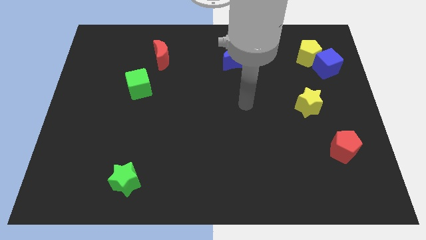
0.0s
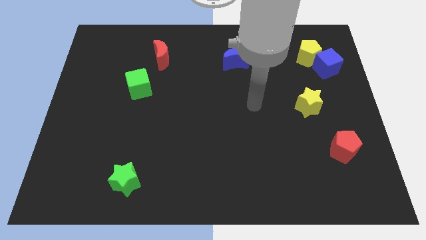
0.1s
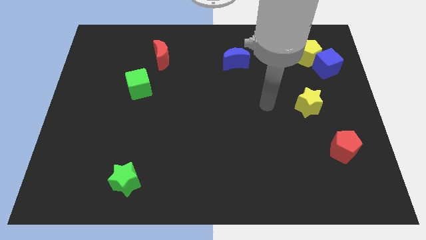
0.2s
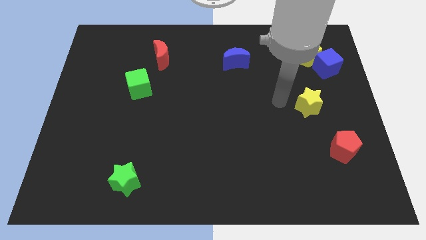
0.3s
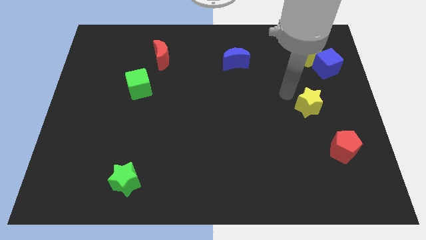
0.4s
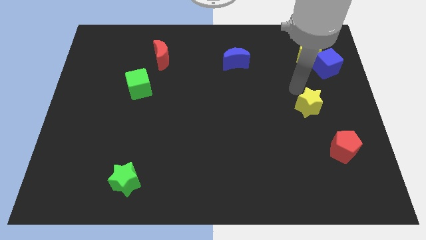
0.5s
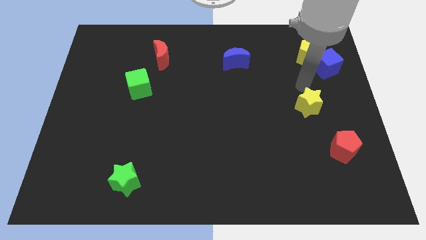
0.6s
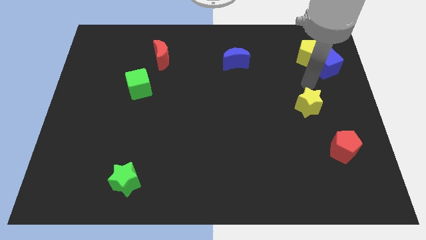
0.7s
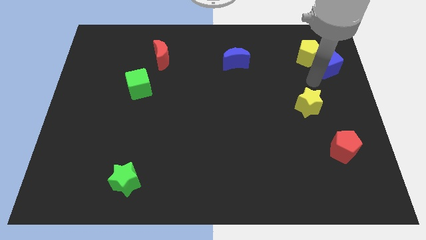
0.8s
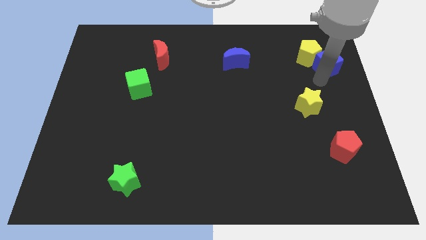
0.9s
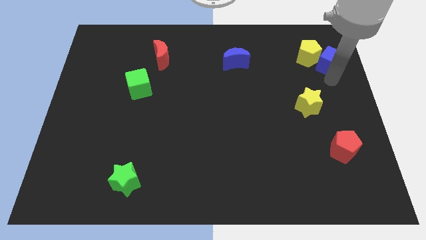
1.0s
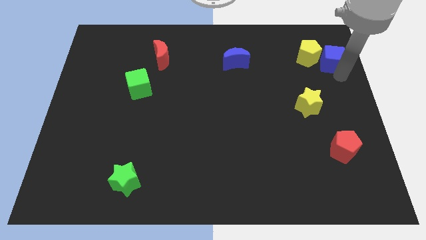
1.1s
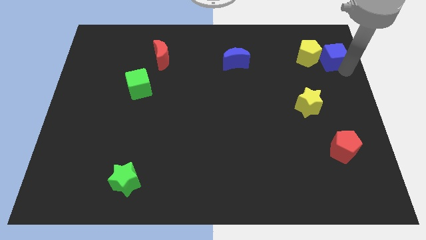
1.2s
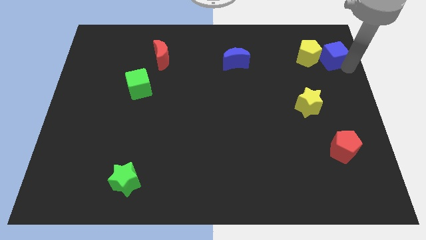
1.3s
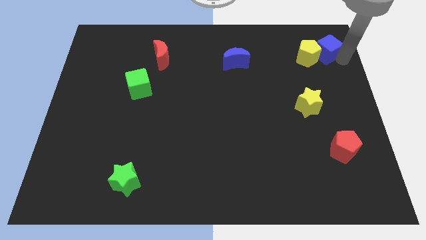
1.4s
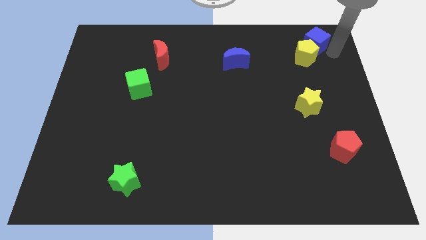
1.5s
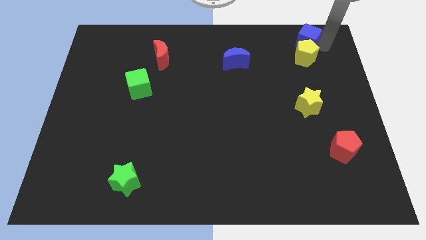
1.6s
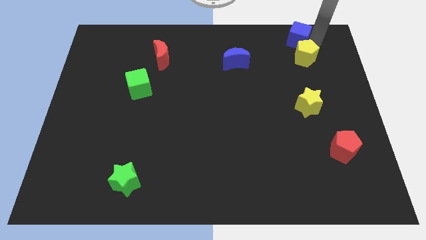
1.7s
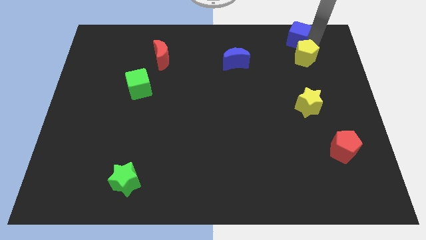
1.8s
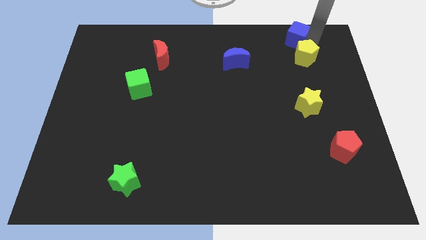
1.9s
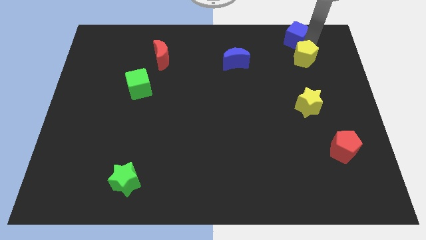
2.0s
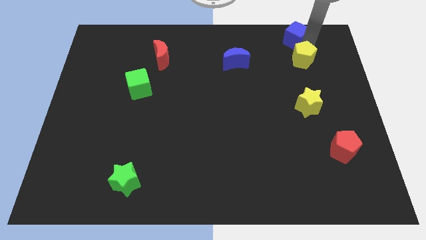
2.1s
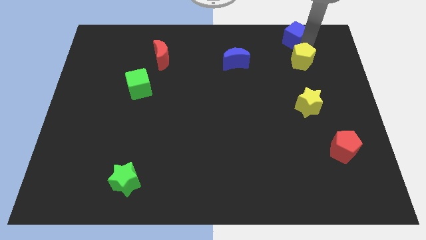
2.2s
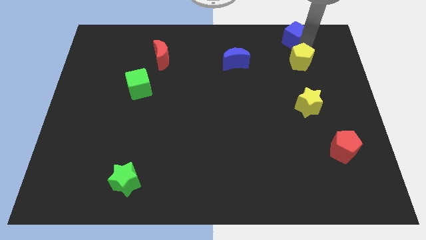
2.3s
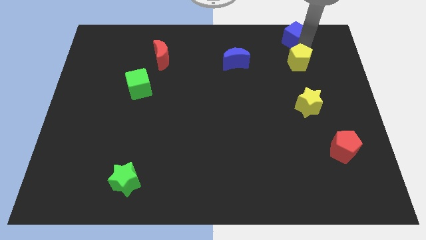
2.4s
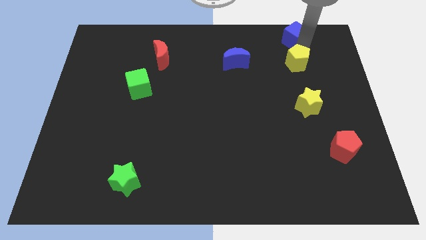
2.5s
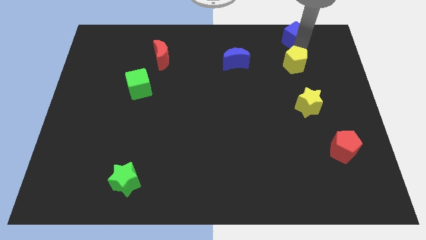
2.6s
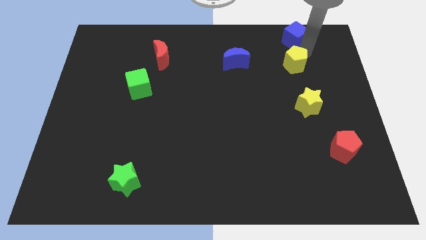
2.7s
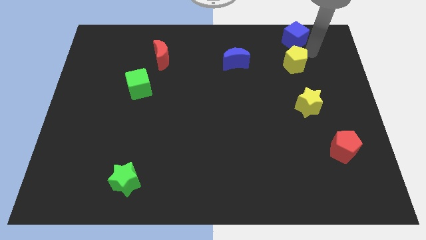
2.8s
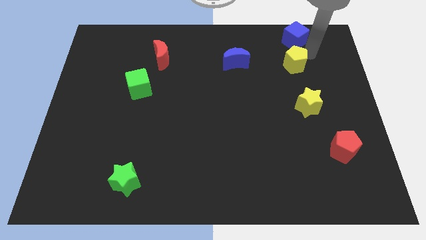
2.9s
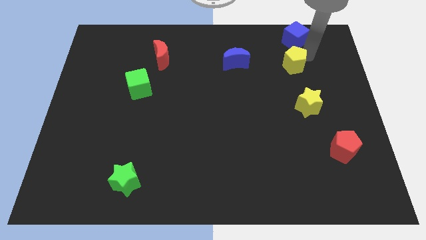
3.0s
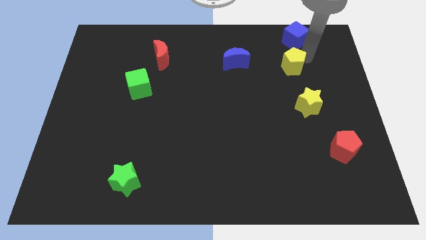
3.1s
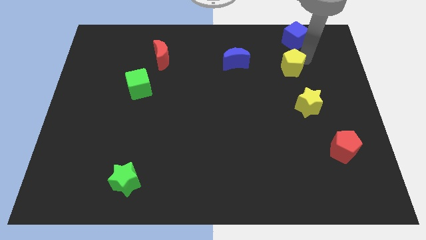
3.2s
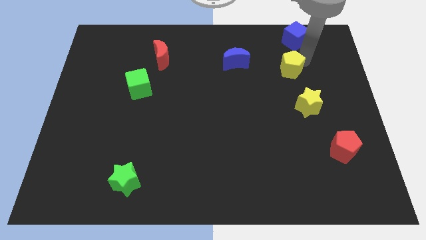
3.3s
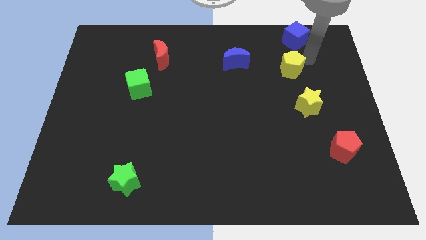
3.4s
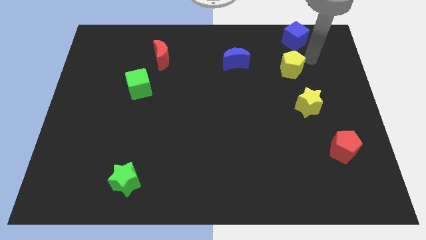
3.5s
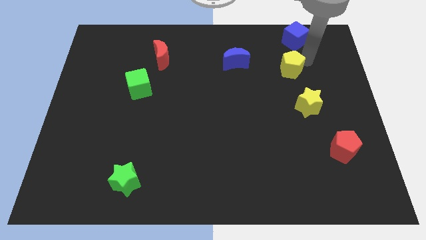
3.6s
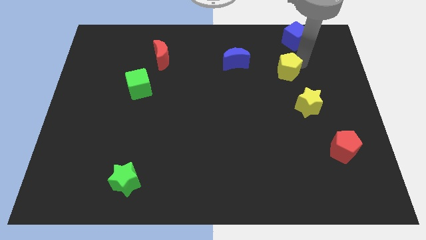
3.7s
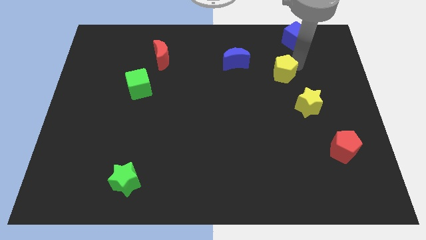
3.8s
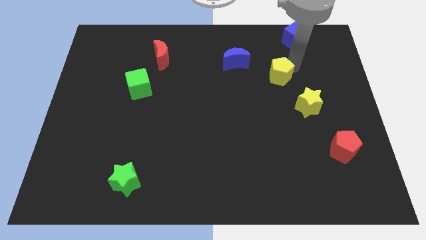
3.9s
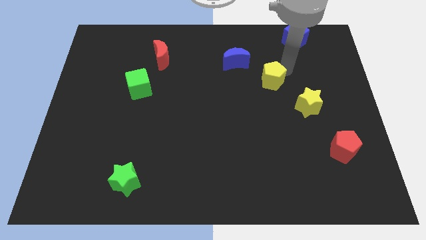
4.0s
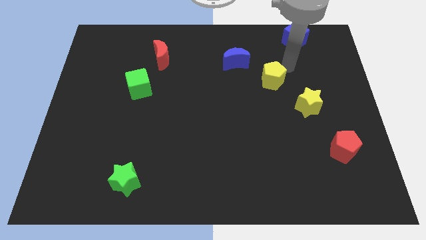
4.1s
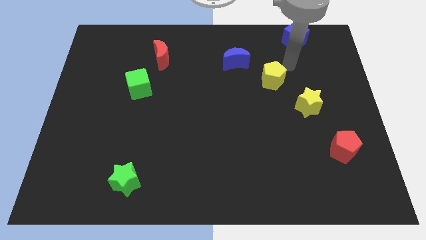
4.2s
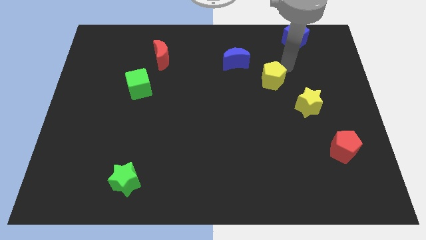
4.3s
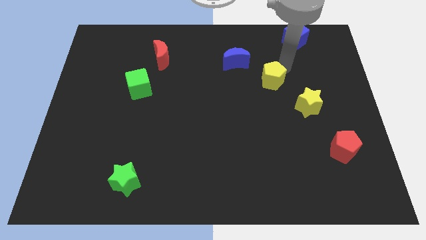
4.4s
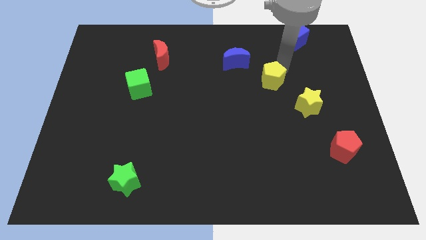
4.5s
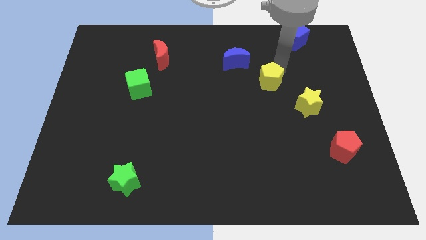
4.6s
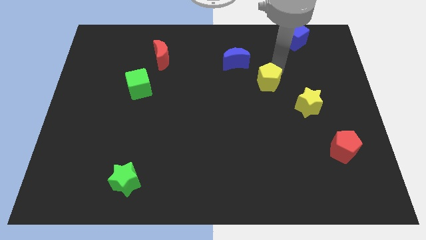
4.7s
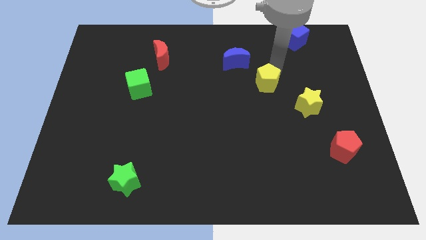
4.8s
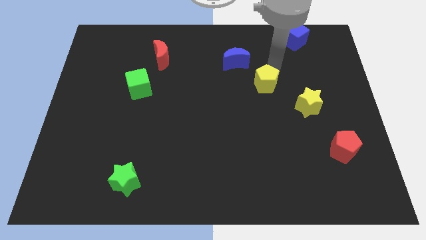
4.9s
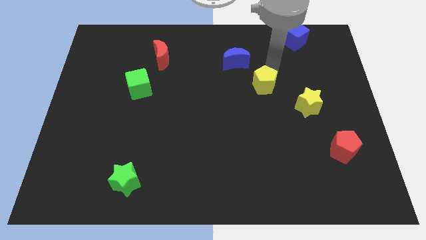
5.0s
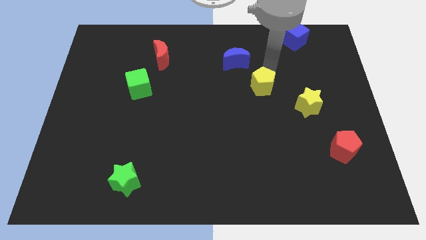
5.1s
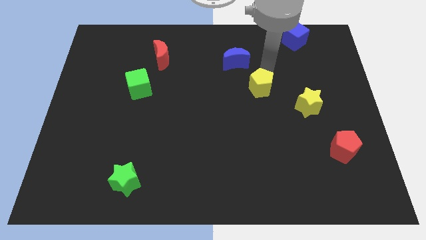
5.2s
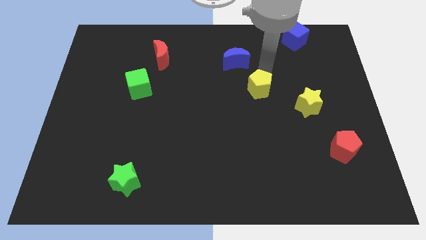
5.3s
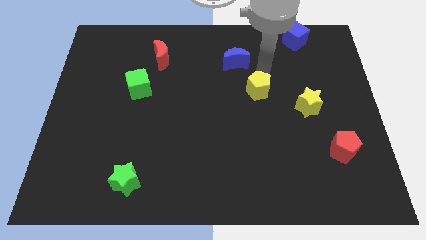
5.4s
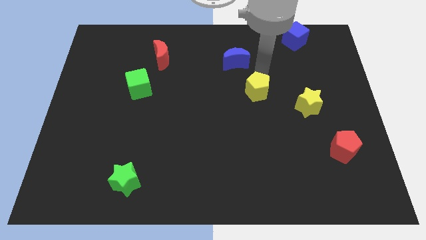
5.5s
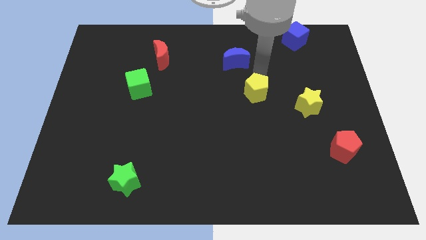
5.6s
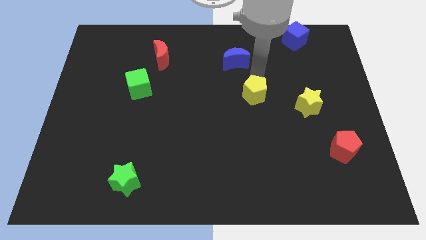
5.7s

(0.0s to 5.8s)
move the yellow pentagon downwards and to the left diagonally

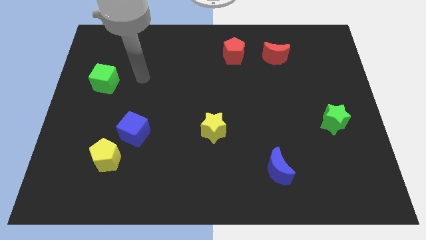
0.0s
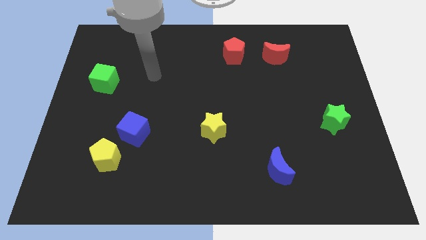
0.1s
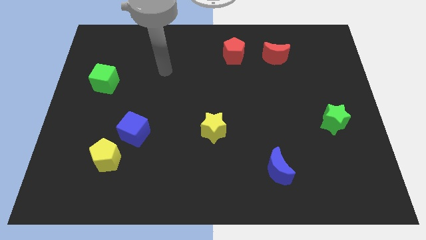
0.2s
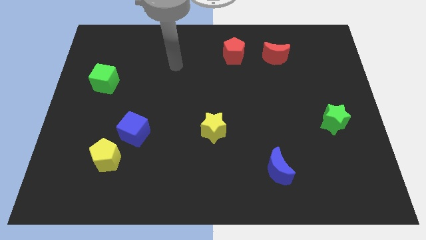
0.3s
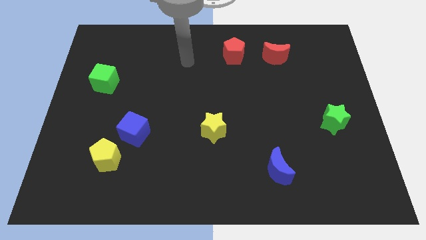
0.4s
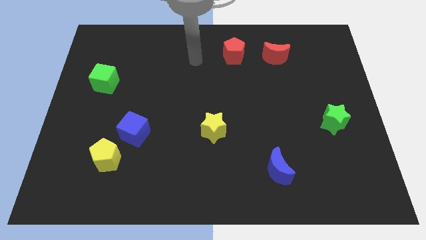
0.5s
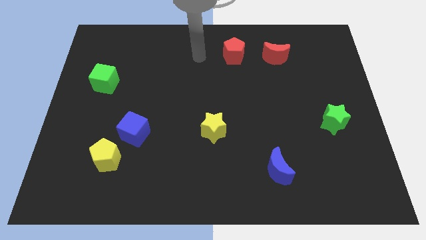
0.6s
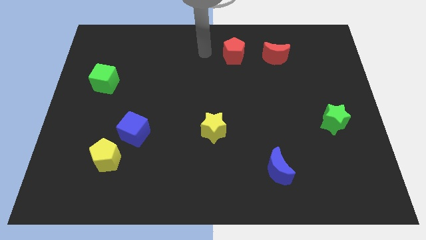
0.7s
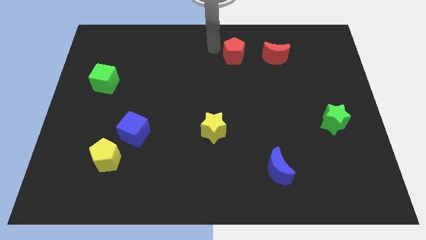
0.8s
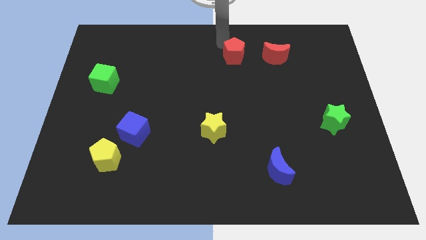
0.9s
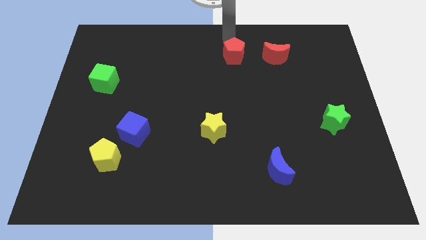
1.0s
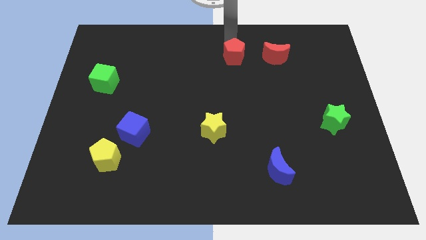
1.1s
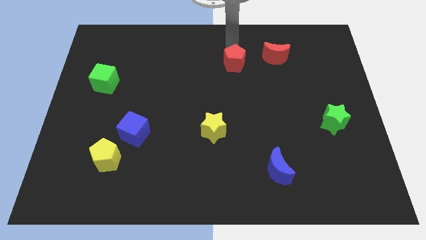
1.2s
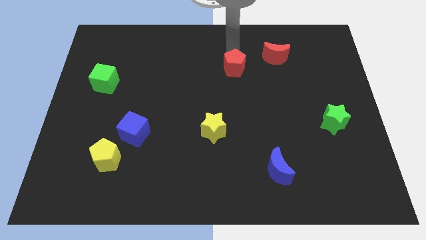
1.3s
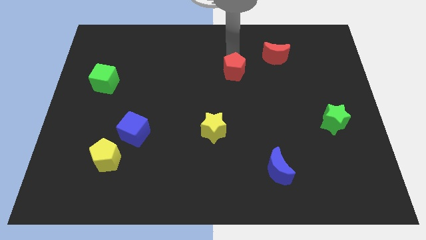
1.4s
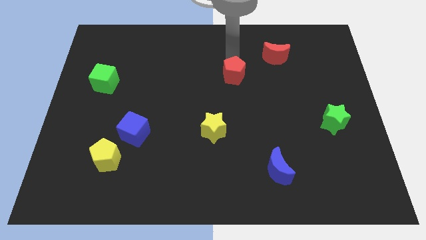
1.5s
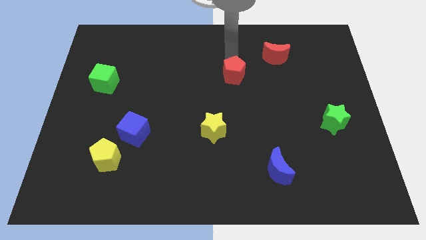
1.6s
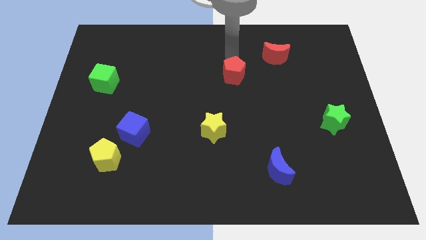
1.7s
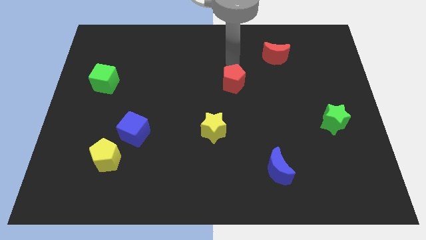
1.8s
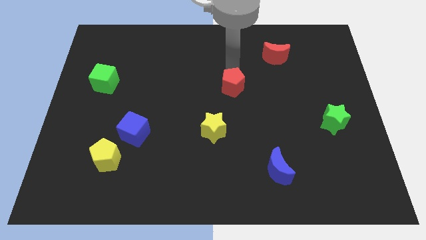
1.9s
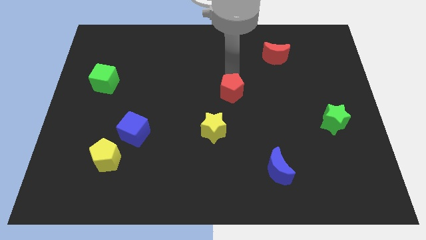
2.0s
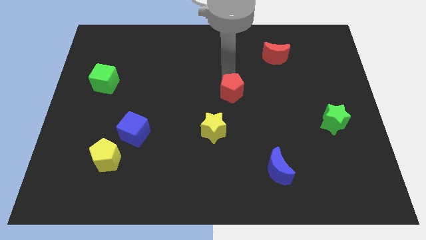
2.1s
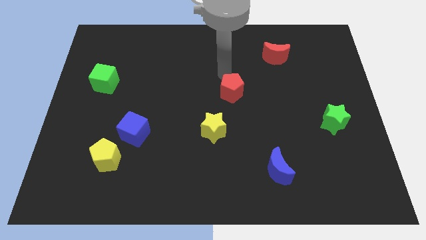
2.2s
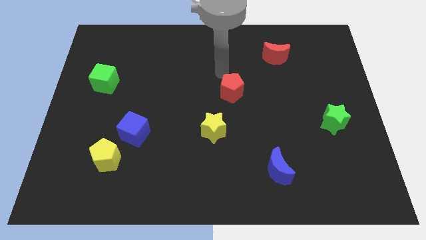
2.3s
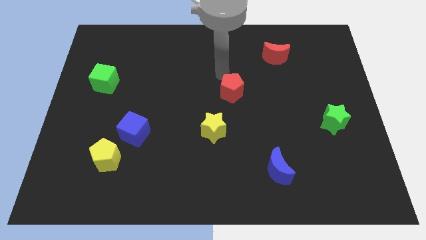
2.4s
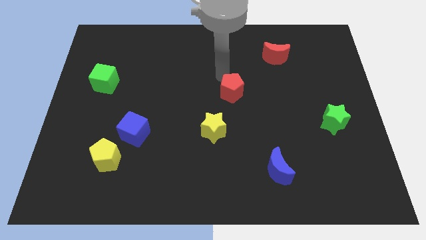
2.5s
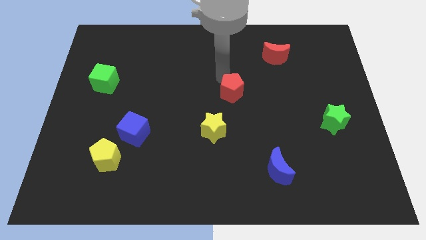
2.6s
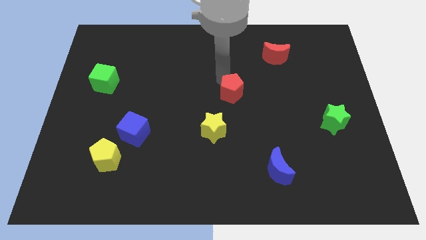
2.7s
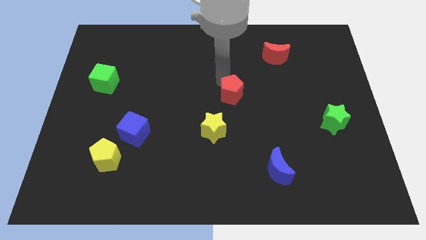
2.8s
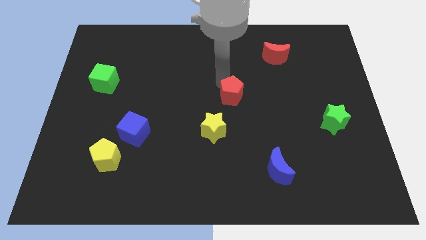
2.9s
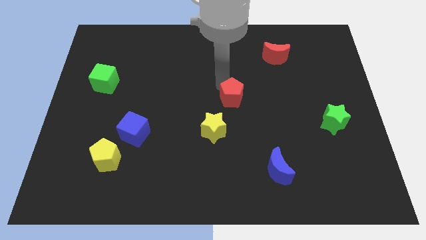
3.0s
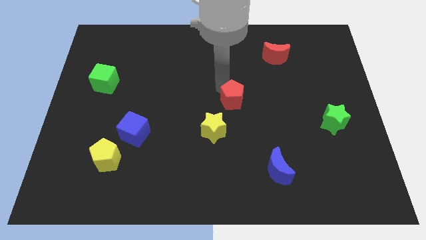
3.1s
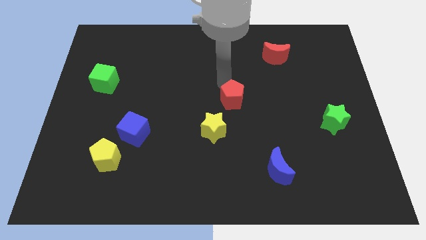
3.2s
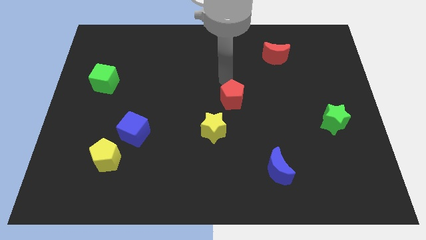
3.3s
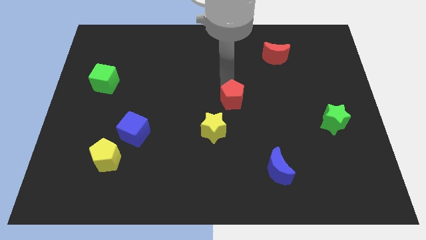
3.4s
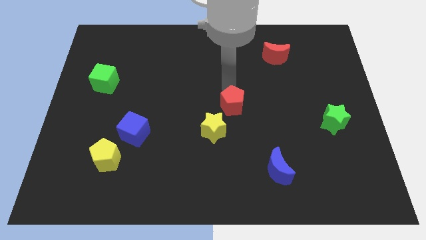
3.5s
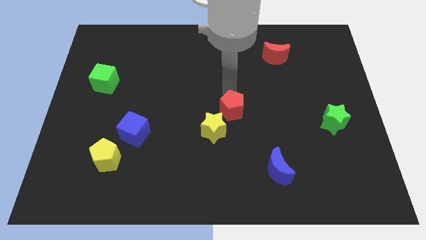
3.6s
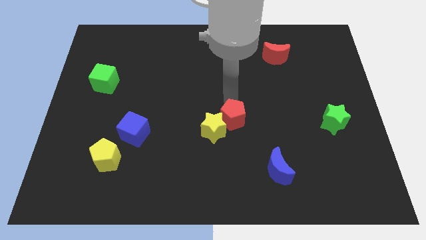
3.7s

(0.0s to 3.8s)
push the red pentagon downwards
